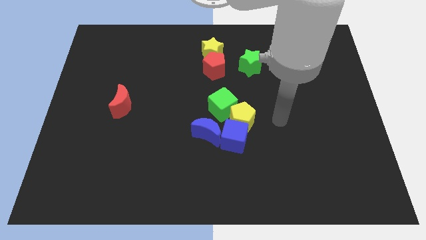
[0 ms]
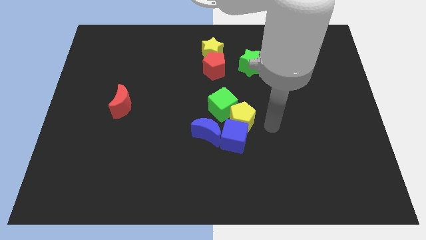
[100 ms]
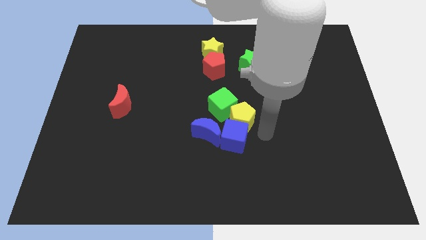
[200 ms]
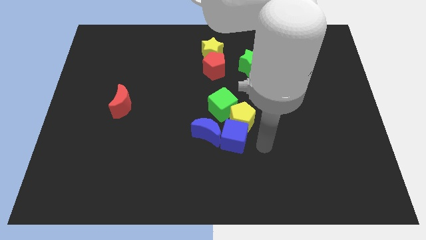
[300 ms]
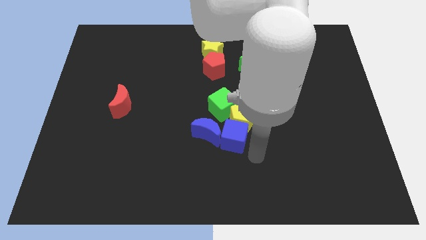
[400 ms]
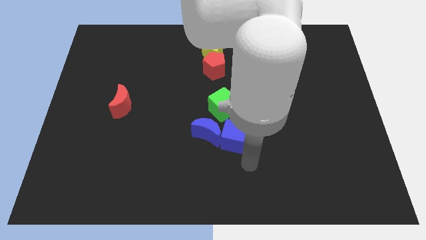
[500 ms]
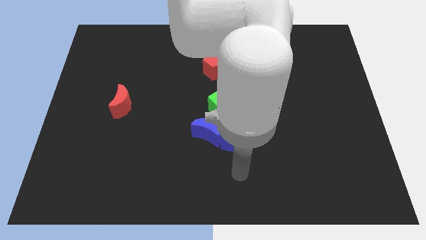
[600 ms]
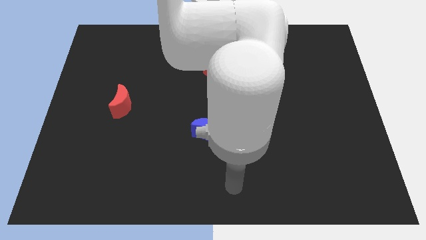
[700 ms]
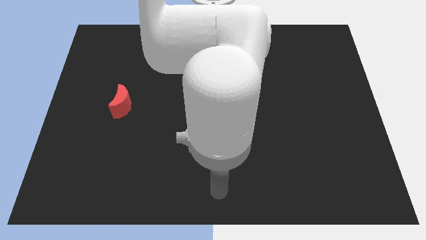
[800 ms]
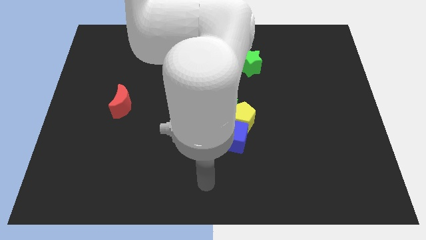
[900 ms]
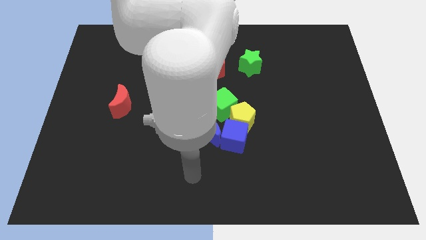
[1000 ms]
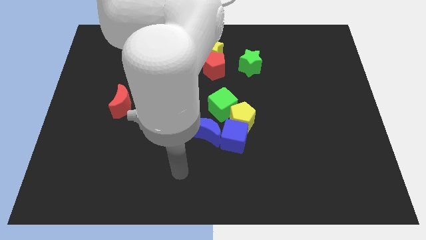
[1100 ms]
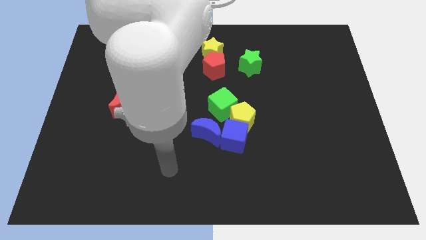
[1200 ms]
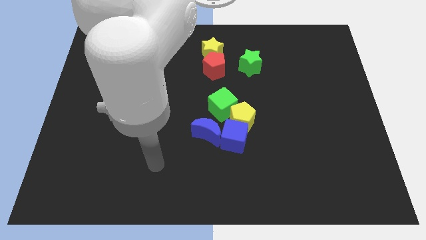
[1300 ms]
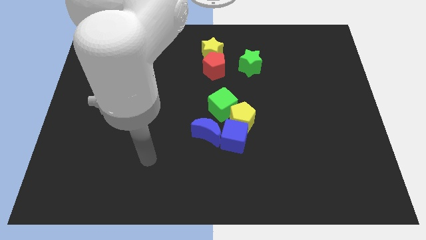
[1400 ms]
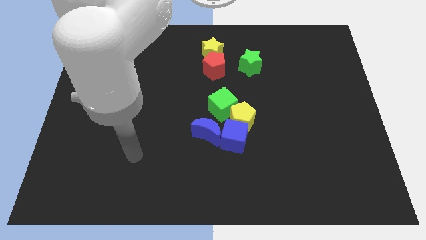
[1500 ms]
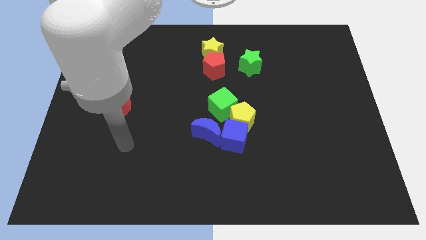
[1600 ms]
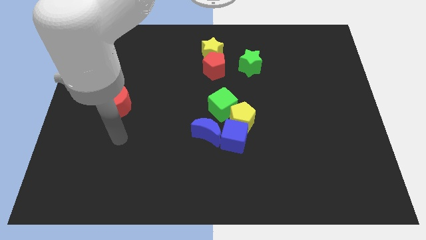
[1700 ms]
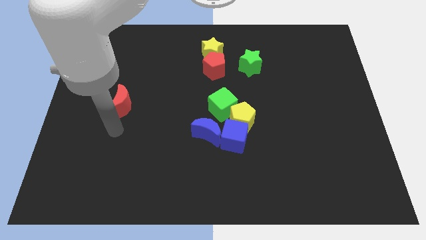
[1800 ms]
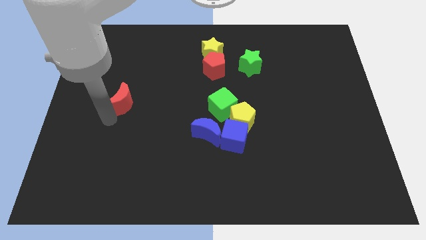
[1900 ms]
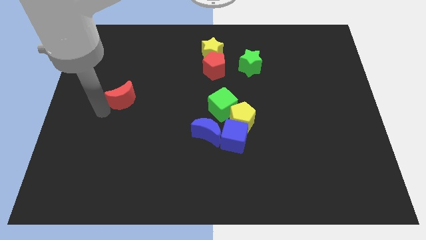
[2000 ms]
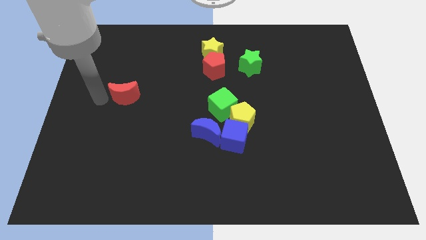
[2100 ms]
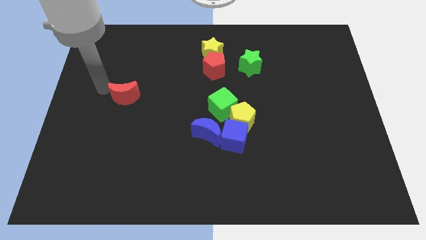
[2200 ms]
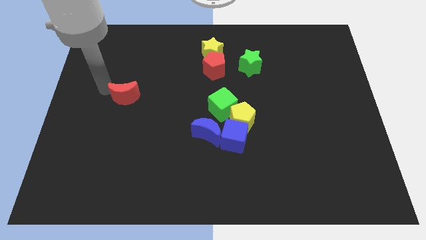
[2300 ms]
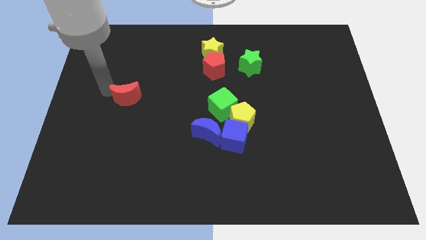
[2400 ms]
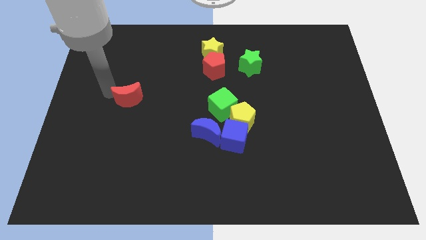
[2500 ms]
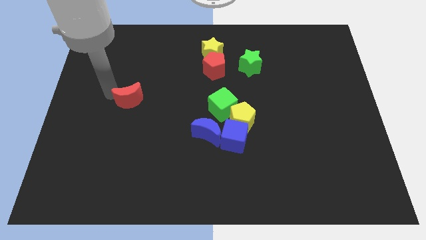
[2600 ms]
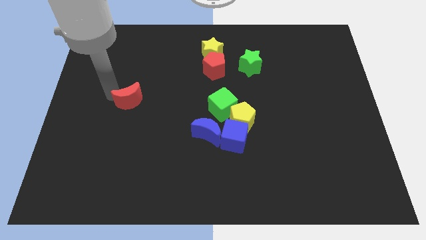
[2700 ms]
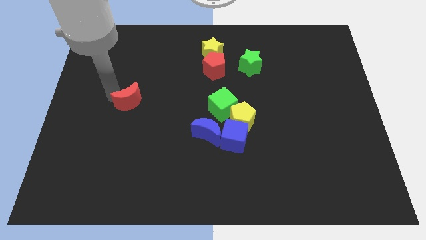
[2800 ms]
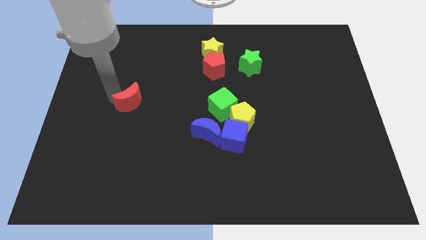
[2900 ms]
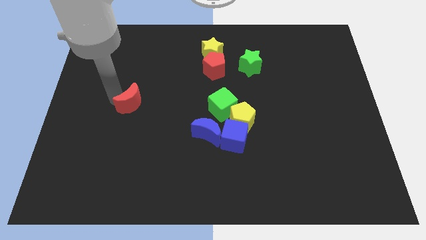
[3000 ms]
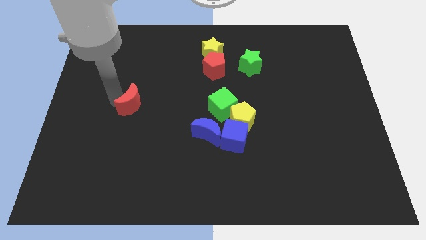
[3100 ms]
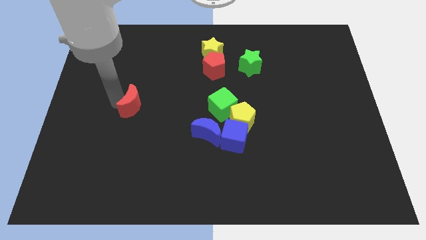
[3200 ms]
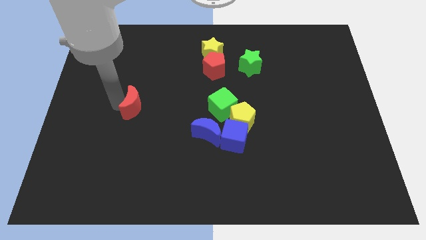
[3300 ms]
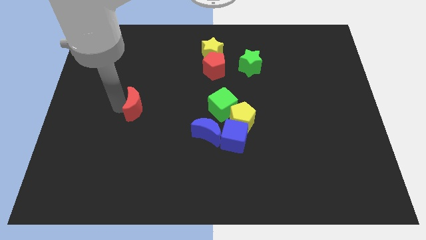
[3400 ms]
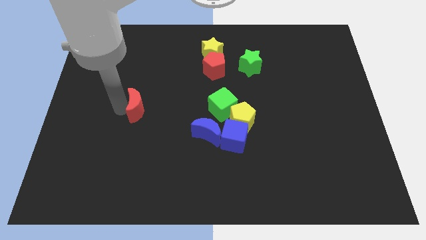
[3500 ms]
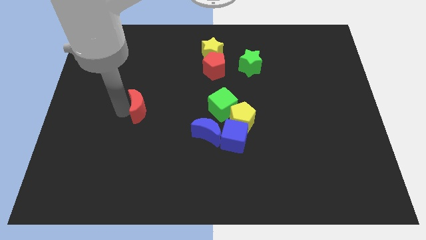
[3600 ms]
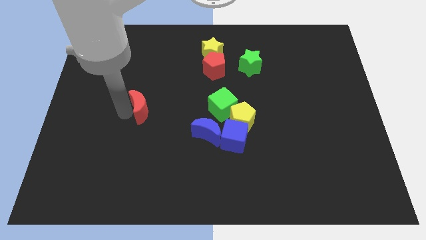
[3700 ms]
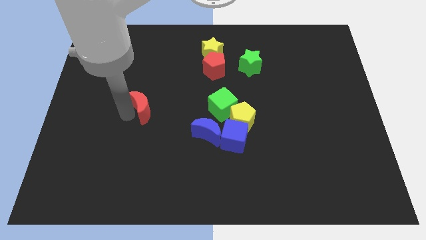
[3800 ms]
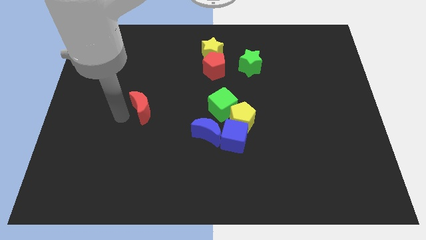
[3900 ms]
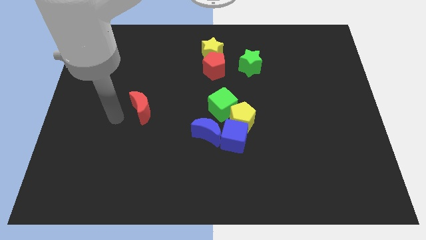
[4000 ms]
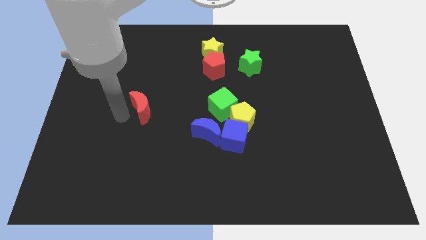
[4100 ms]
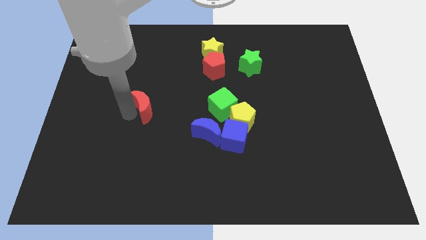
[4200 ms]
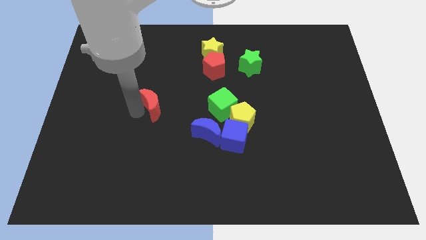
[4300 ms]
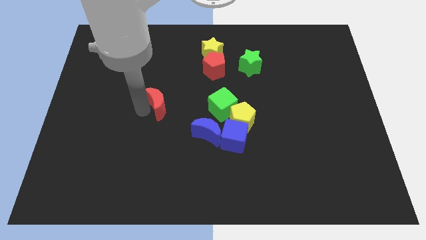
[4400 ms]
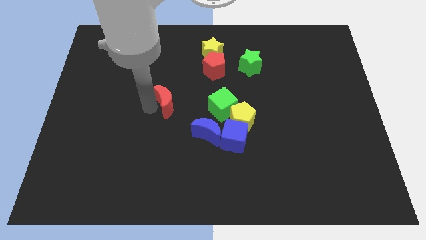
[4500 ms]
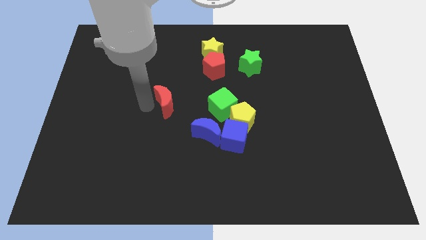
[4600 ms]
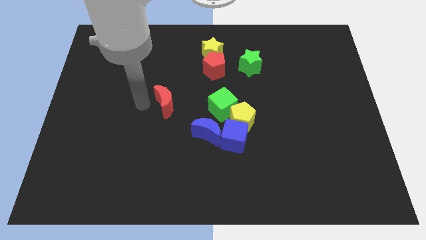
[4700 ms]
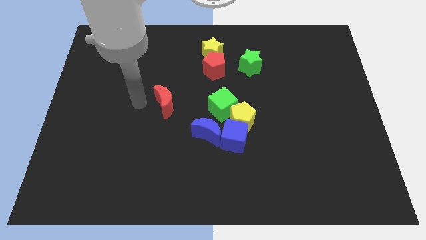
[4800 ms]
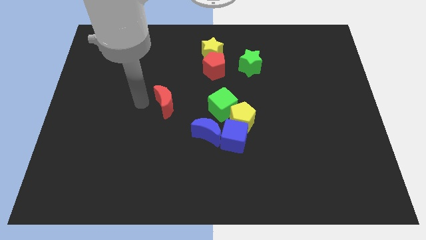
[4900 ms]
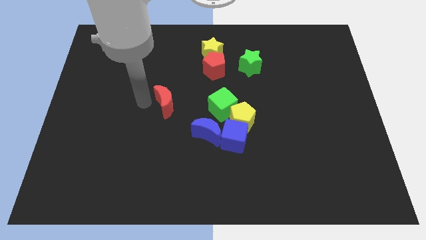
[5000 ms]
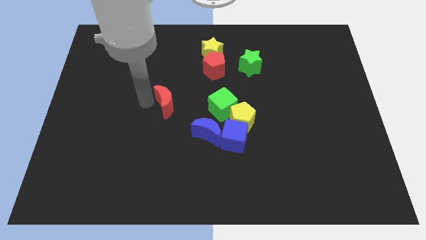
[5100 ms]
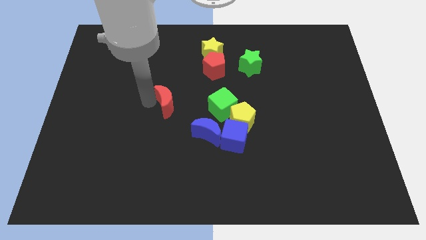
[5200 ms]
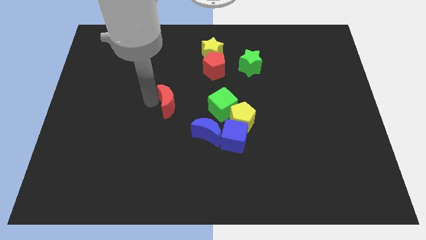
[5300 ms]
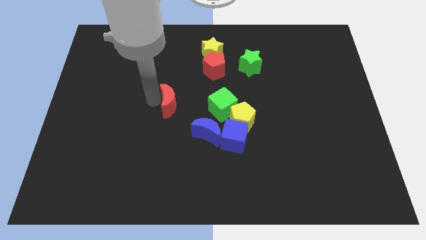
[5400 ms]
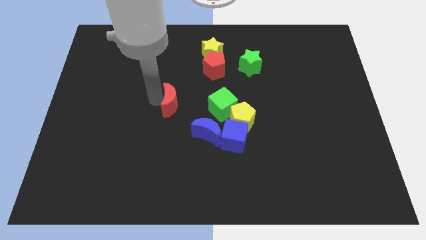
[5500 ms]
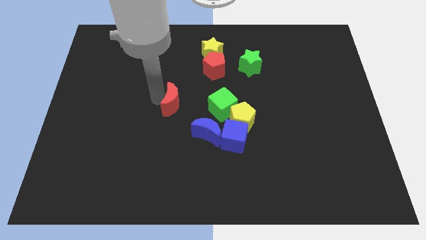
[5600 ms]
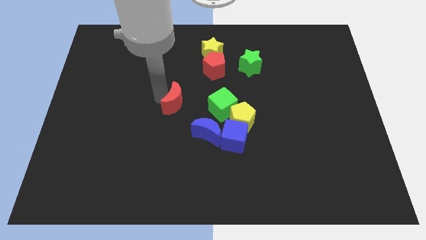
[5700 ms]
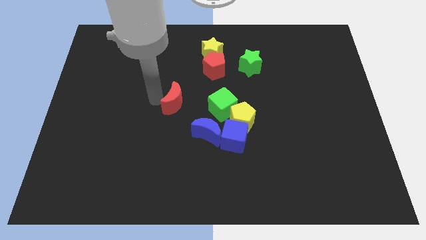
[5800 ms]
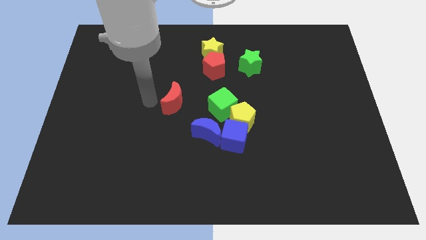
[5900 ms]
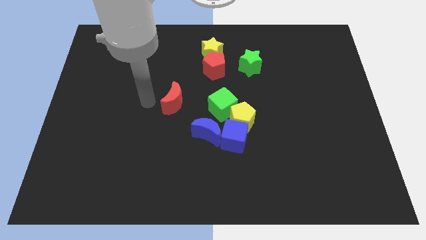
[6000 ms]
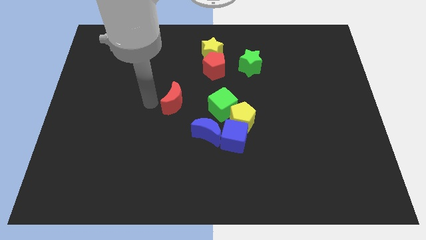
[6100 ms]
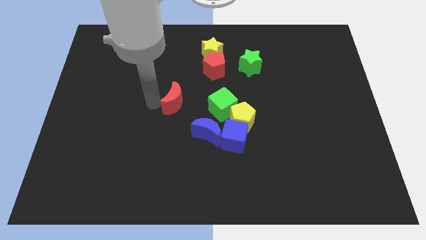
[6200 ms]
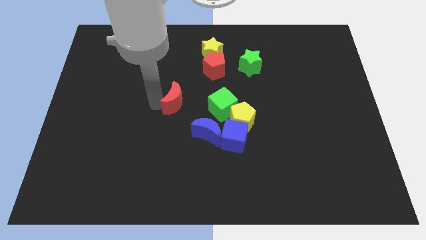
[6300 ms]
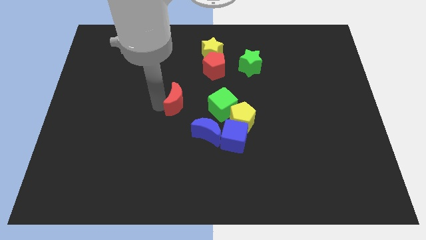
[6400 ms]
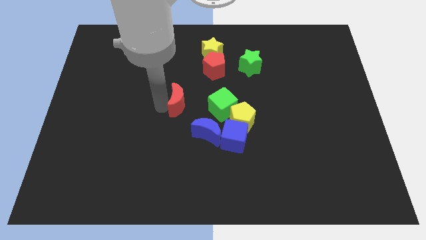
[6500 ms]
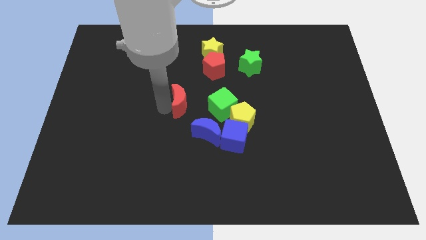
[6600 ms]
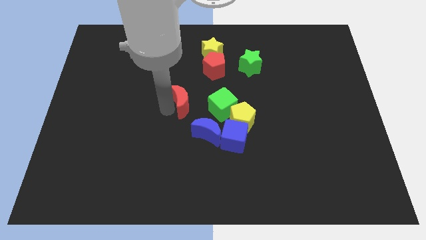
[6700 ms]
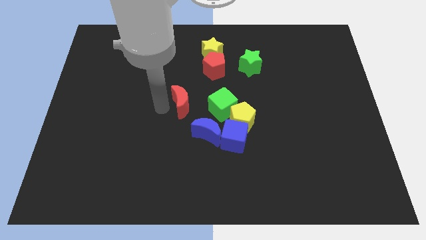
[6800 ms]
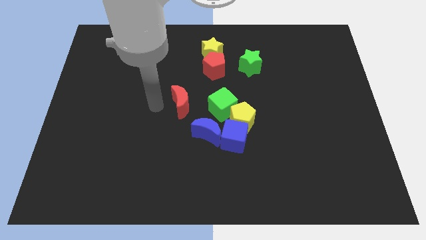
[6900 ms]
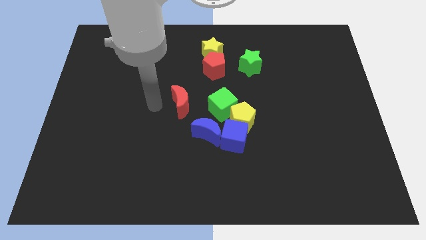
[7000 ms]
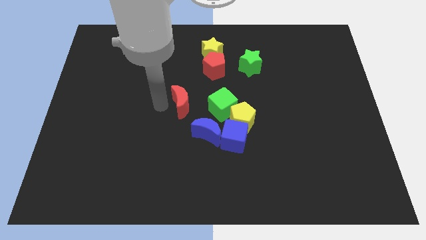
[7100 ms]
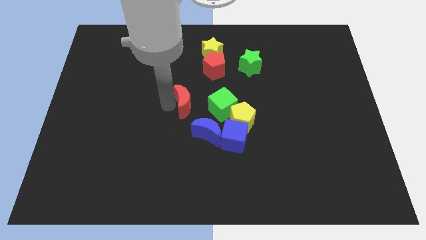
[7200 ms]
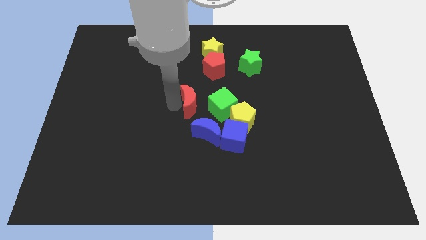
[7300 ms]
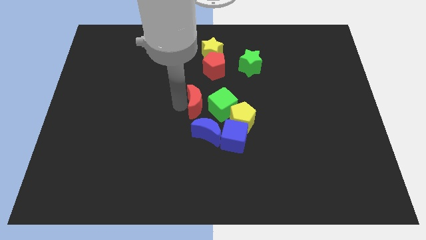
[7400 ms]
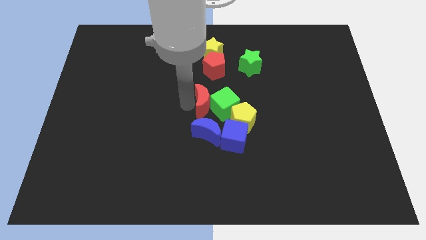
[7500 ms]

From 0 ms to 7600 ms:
slide the red moon towards the green cube
